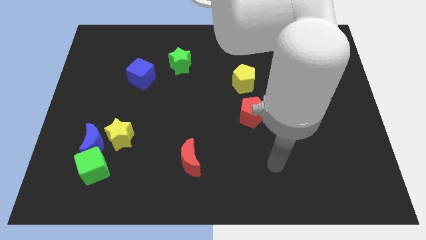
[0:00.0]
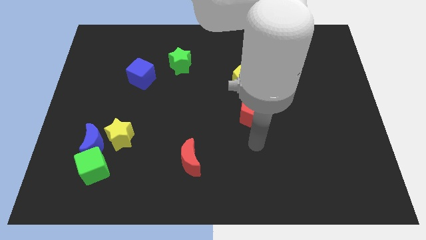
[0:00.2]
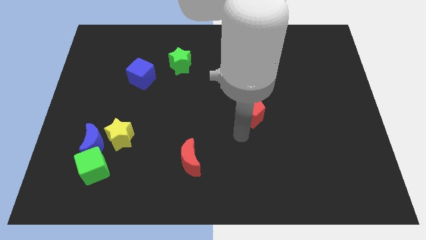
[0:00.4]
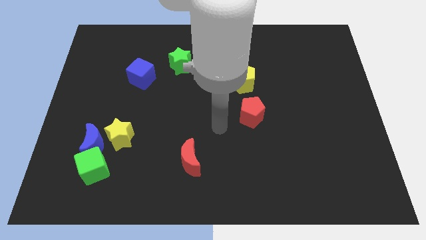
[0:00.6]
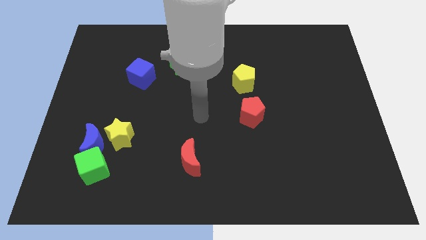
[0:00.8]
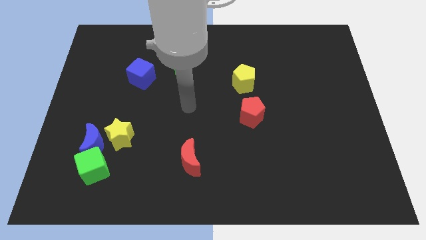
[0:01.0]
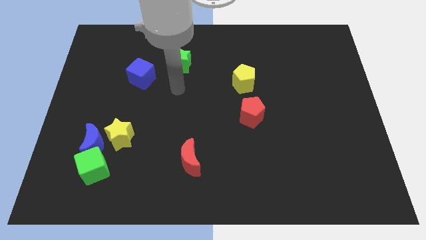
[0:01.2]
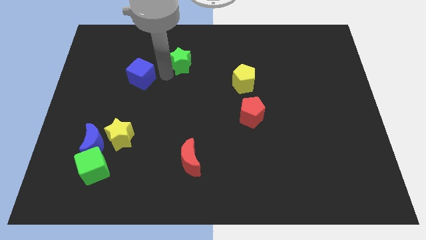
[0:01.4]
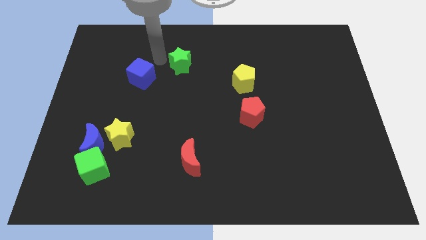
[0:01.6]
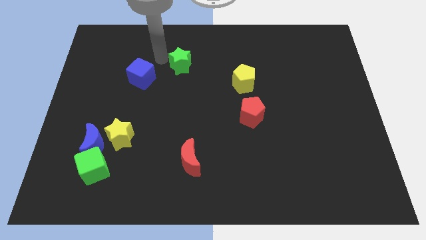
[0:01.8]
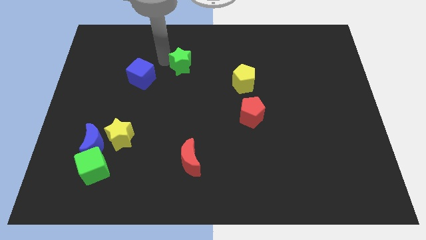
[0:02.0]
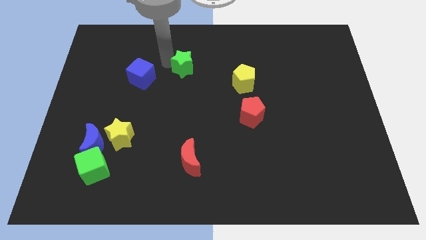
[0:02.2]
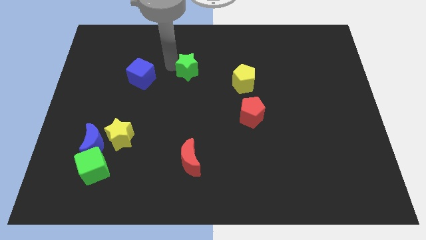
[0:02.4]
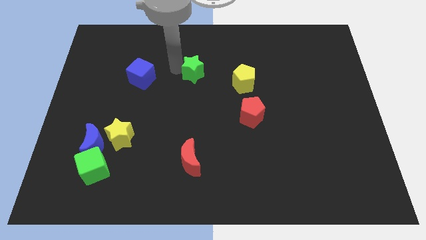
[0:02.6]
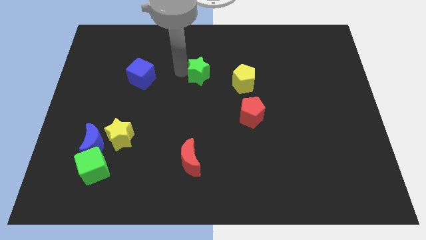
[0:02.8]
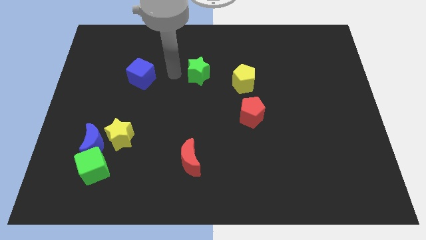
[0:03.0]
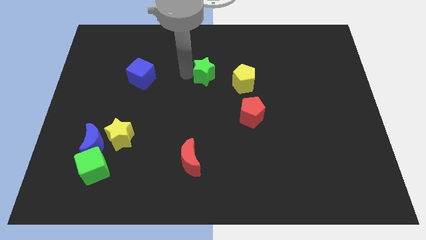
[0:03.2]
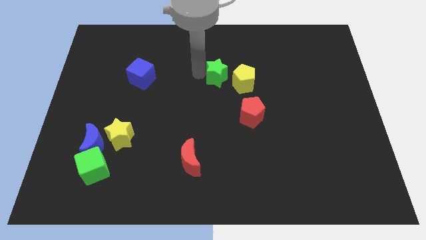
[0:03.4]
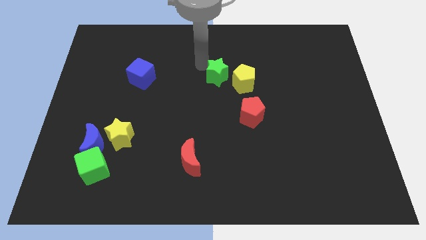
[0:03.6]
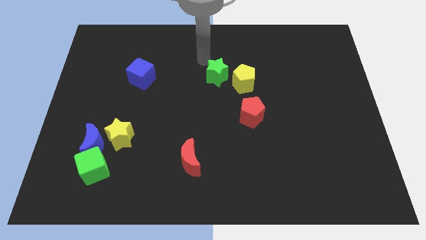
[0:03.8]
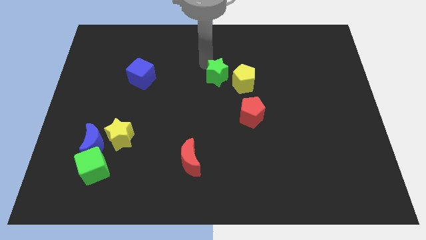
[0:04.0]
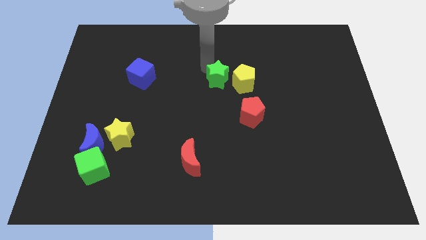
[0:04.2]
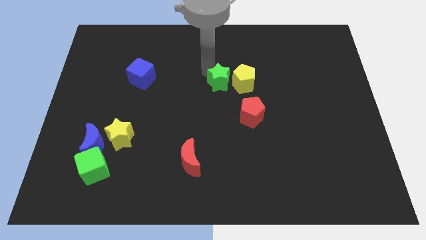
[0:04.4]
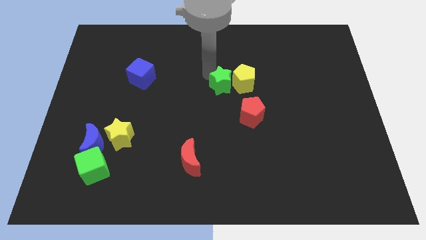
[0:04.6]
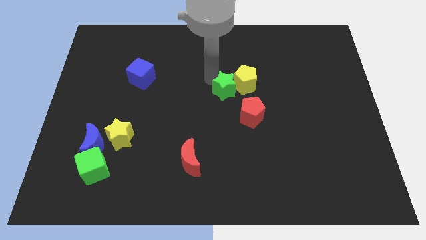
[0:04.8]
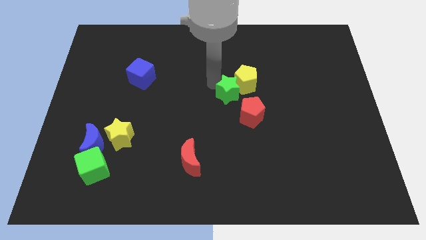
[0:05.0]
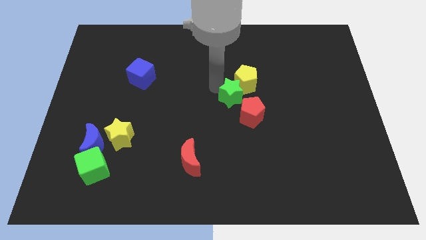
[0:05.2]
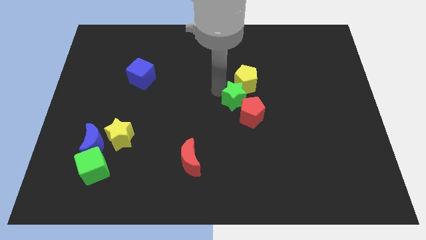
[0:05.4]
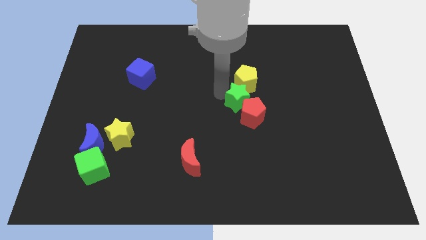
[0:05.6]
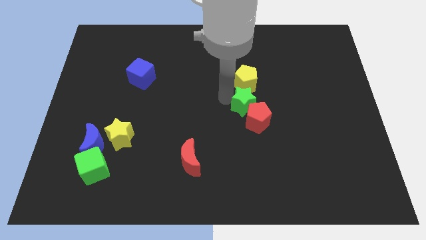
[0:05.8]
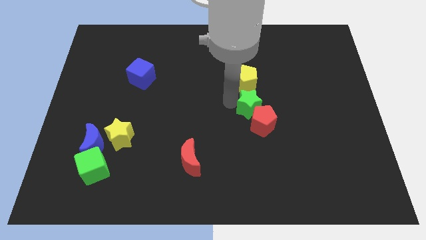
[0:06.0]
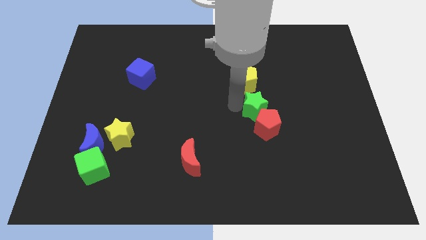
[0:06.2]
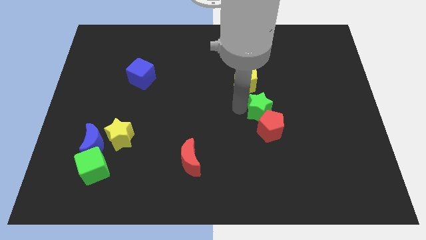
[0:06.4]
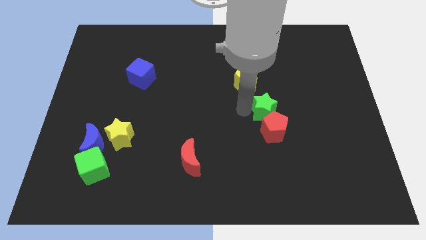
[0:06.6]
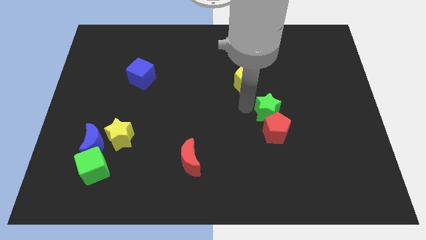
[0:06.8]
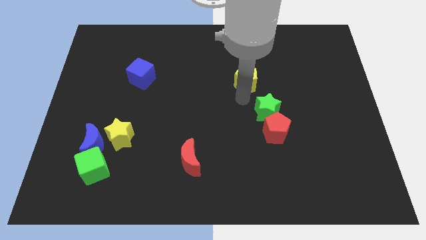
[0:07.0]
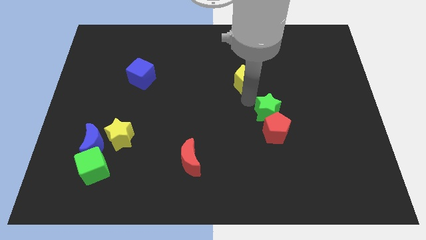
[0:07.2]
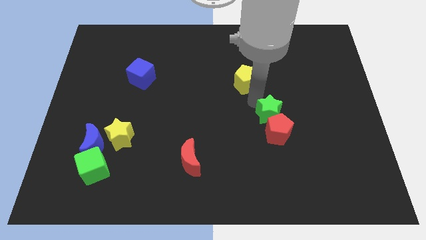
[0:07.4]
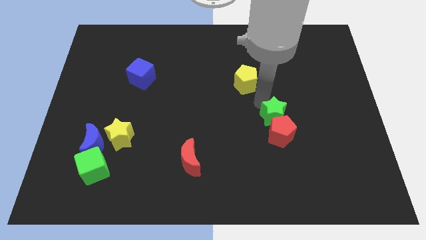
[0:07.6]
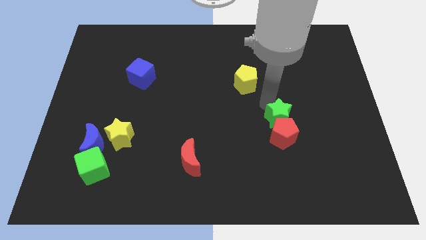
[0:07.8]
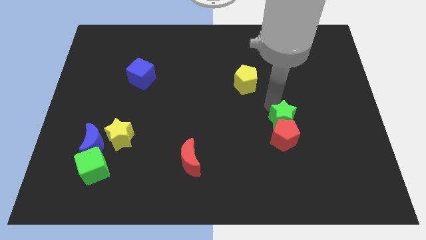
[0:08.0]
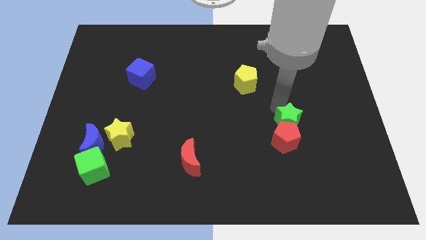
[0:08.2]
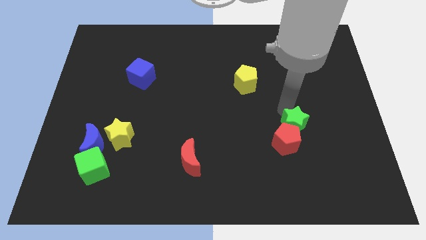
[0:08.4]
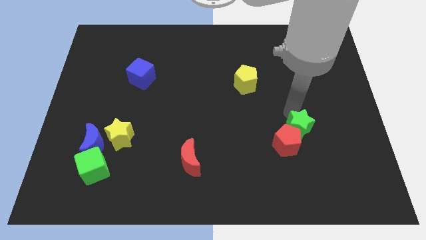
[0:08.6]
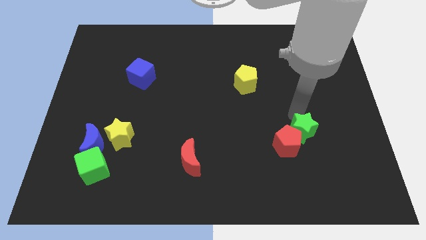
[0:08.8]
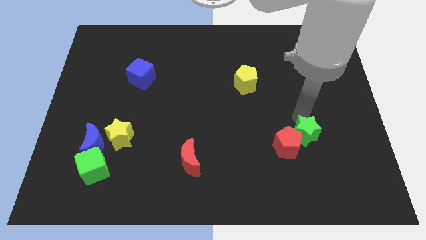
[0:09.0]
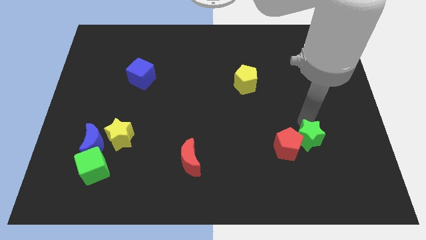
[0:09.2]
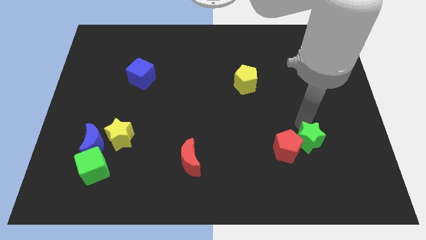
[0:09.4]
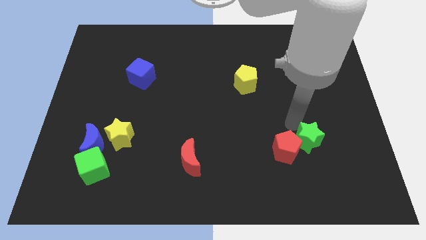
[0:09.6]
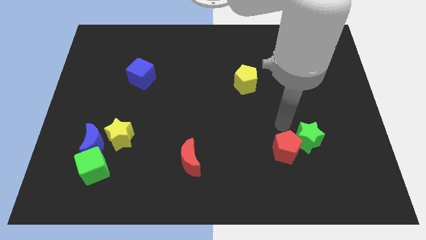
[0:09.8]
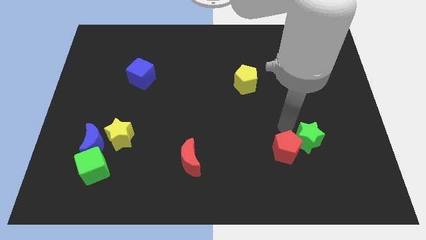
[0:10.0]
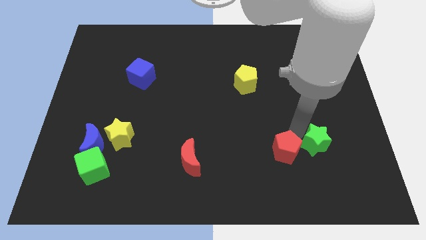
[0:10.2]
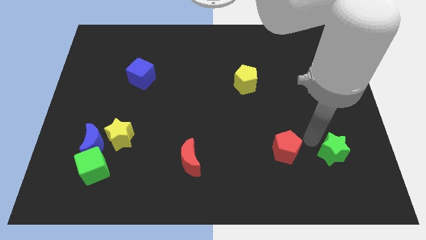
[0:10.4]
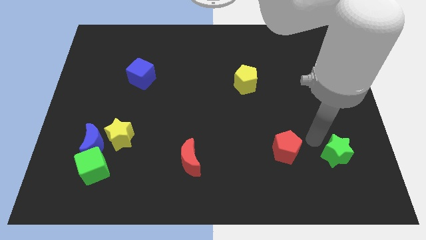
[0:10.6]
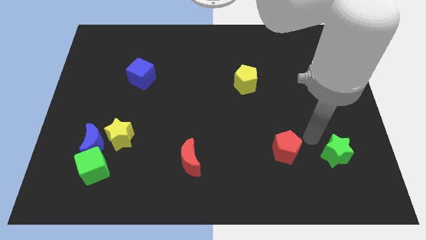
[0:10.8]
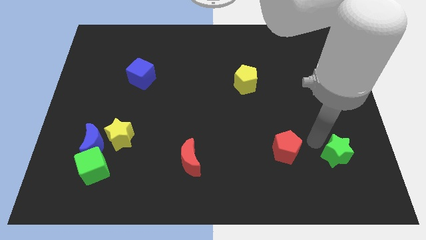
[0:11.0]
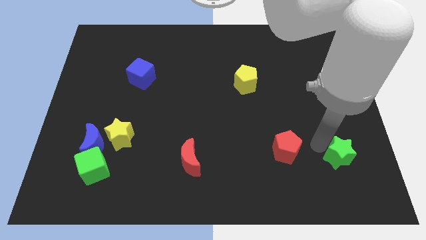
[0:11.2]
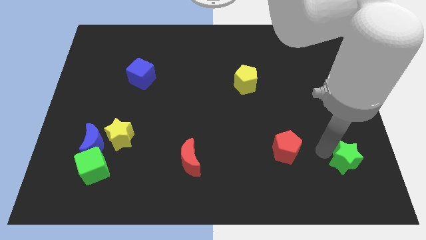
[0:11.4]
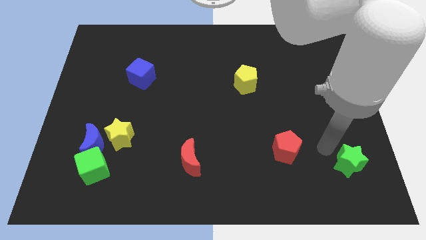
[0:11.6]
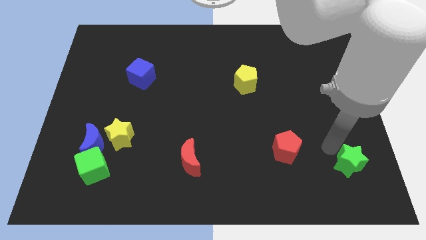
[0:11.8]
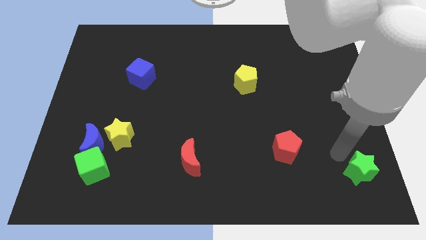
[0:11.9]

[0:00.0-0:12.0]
slide the green star to the bottom right
